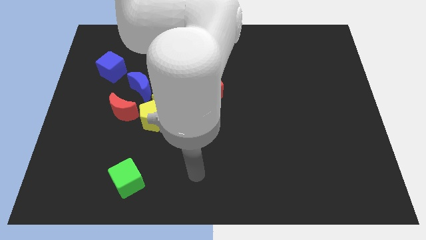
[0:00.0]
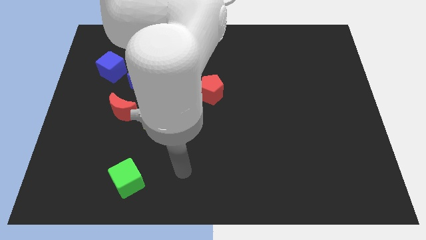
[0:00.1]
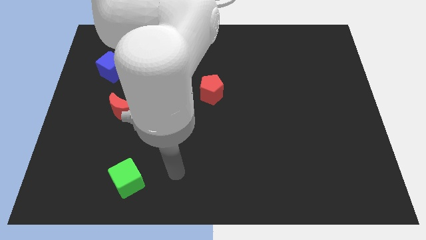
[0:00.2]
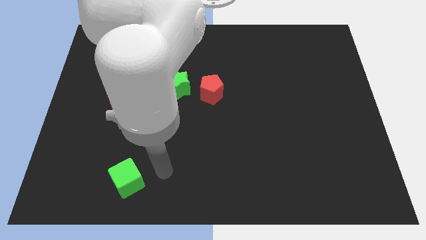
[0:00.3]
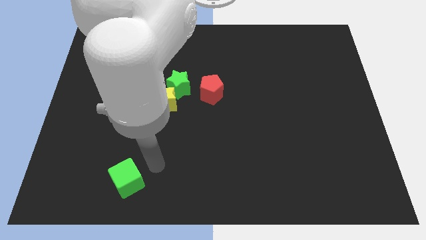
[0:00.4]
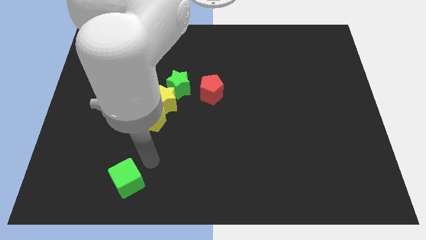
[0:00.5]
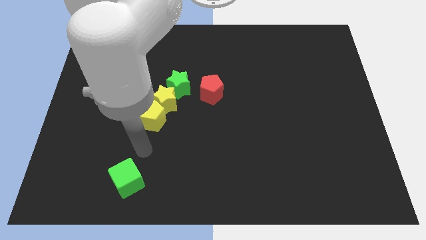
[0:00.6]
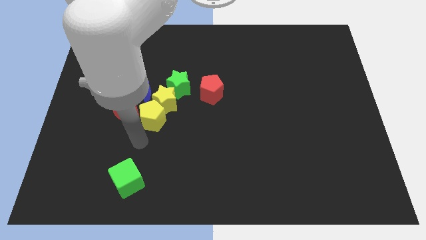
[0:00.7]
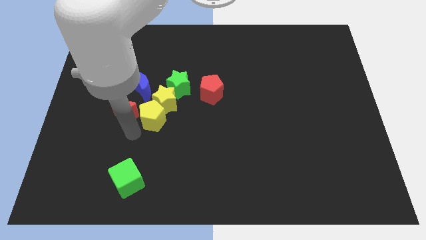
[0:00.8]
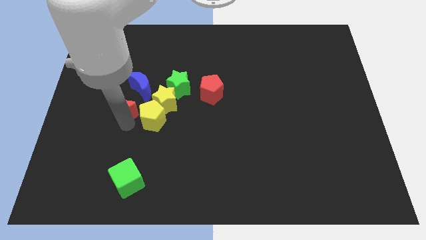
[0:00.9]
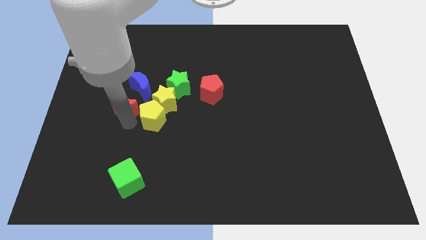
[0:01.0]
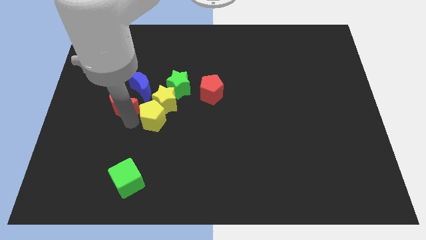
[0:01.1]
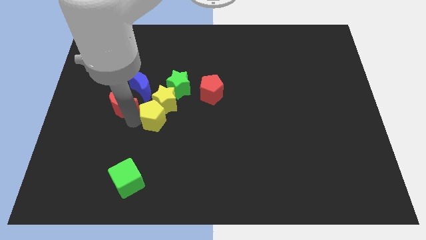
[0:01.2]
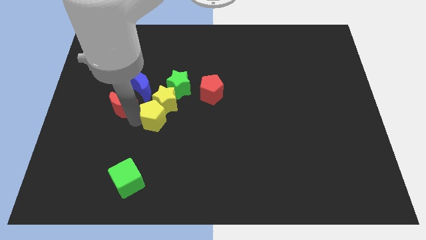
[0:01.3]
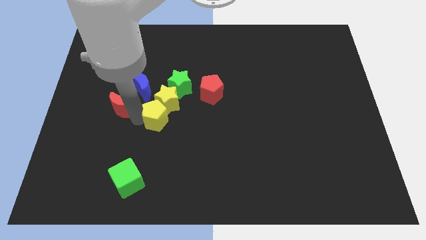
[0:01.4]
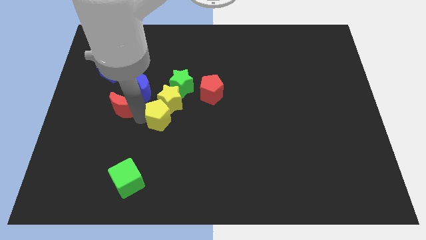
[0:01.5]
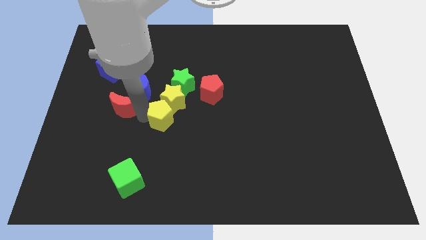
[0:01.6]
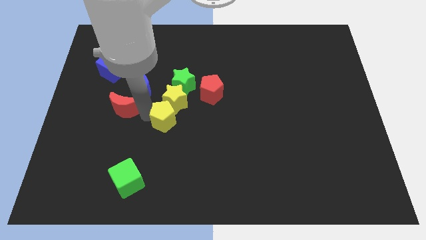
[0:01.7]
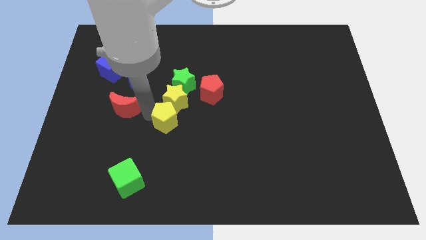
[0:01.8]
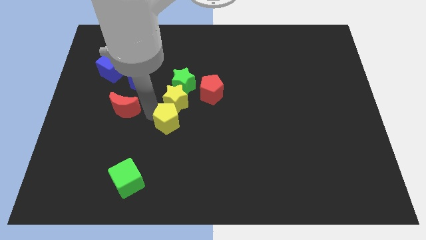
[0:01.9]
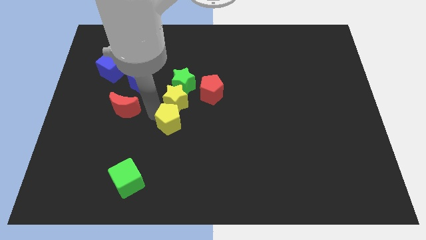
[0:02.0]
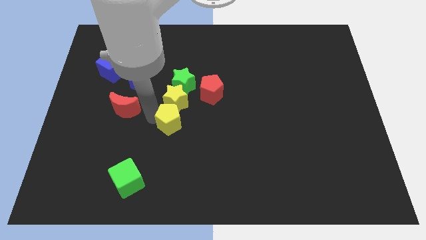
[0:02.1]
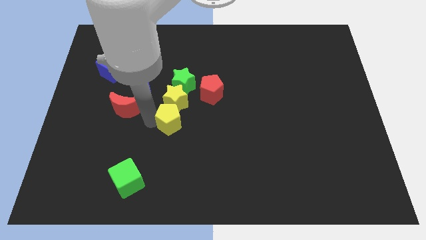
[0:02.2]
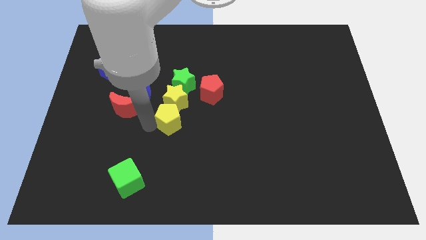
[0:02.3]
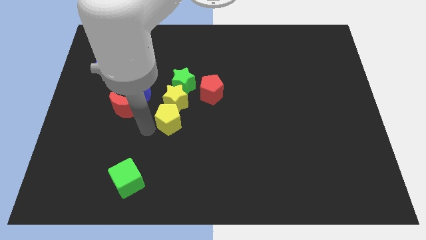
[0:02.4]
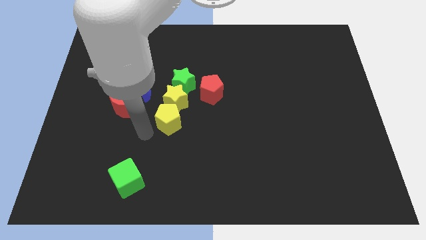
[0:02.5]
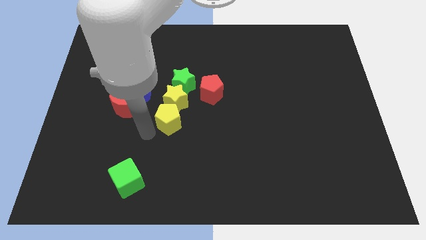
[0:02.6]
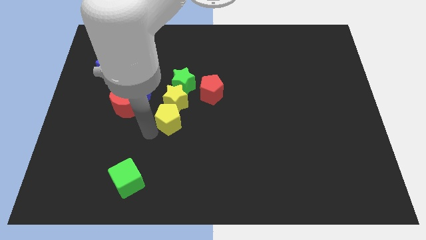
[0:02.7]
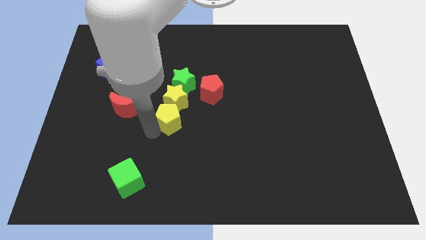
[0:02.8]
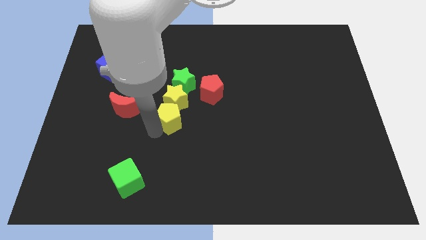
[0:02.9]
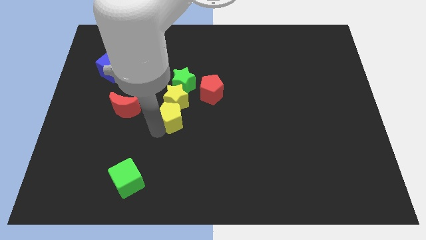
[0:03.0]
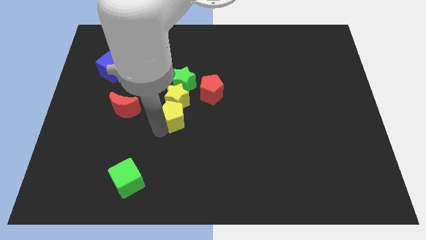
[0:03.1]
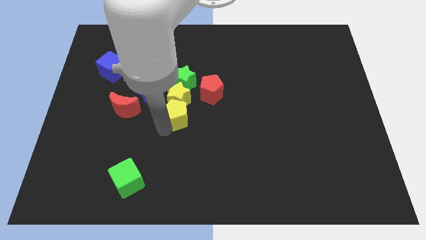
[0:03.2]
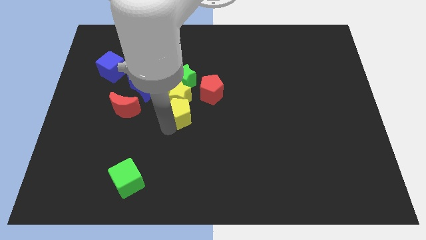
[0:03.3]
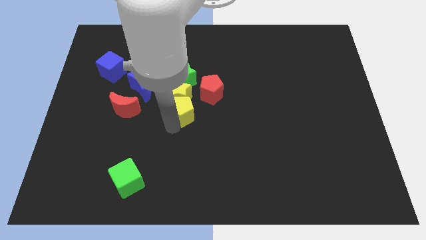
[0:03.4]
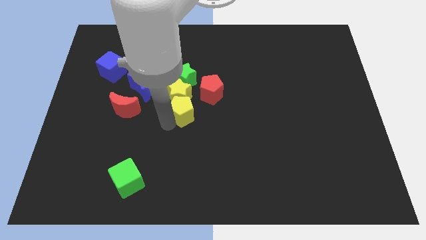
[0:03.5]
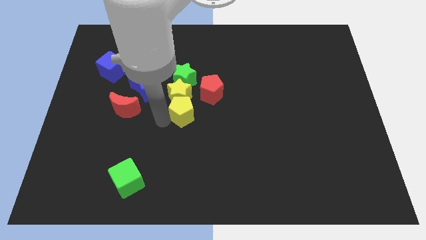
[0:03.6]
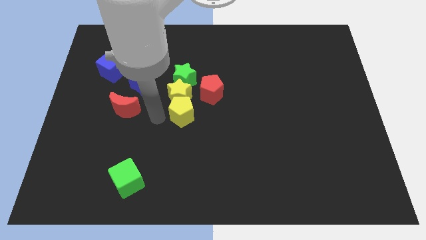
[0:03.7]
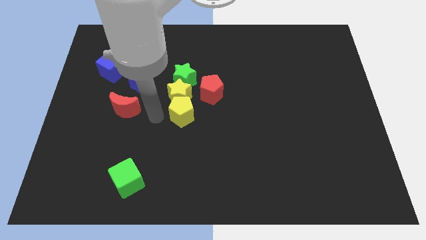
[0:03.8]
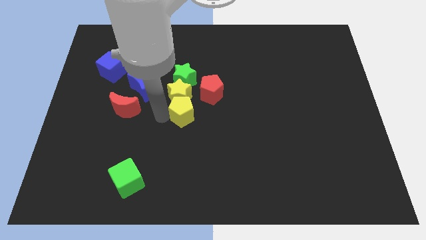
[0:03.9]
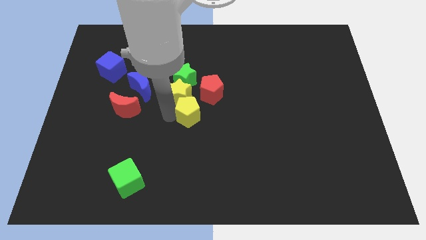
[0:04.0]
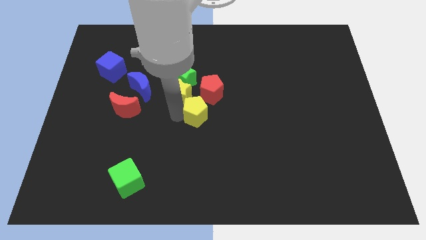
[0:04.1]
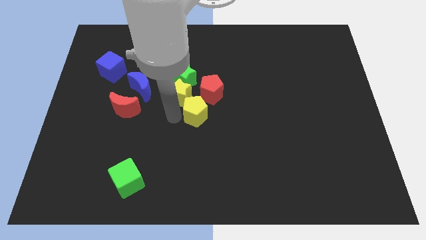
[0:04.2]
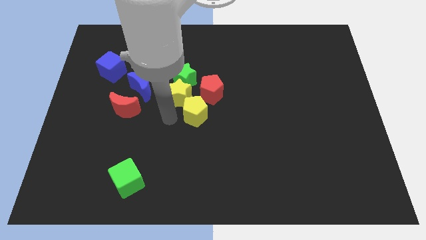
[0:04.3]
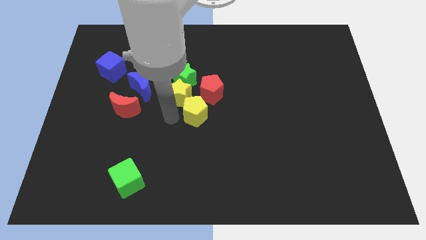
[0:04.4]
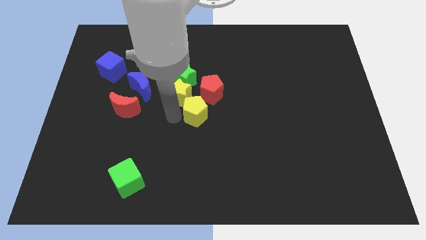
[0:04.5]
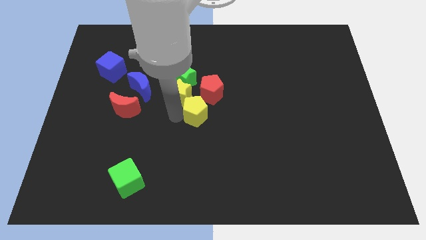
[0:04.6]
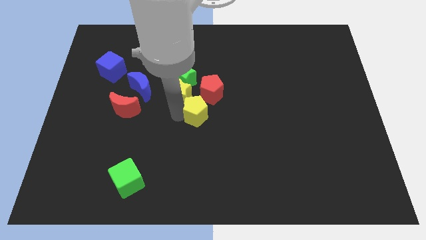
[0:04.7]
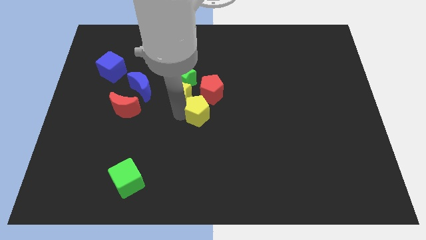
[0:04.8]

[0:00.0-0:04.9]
slightly push the yellow pentagon diagonally up and right

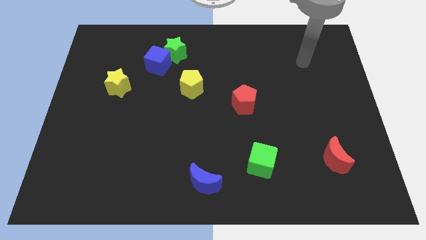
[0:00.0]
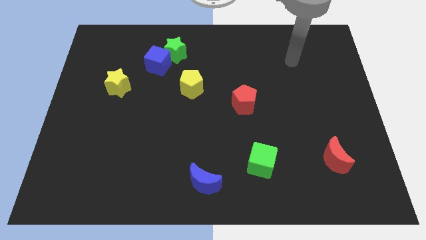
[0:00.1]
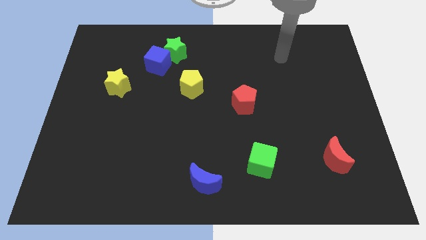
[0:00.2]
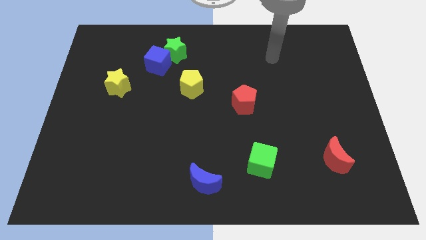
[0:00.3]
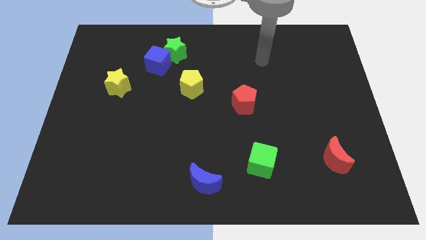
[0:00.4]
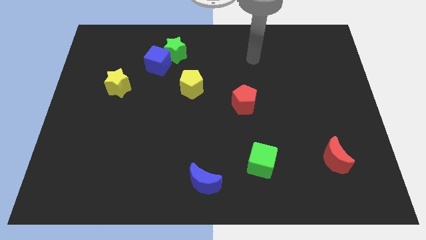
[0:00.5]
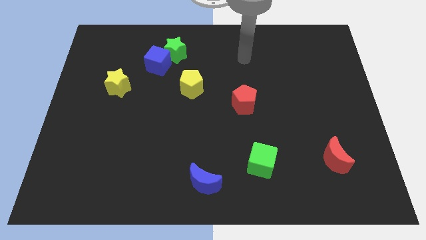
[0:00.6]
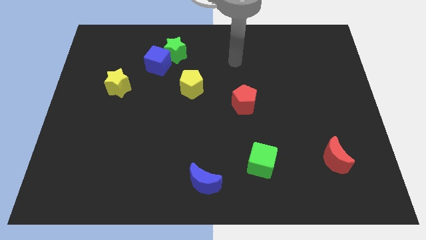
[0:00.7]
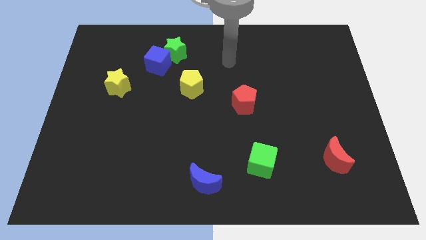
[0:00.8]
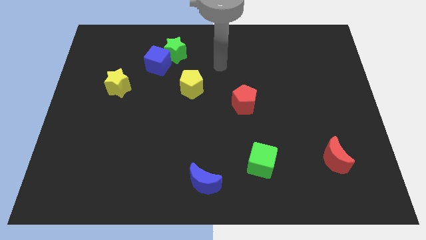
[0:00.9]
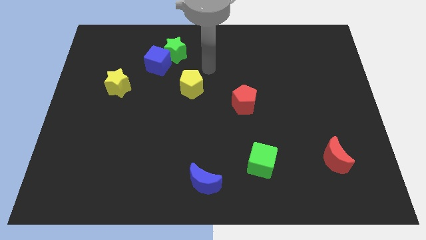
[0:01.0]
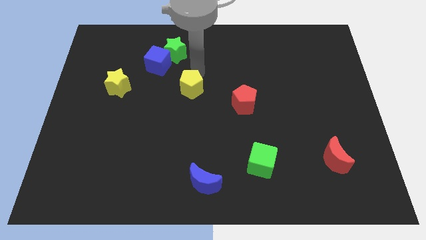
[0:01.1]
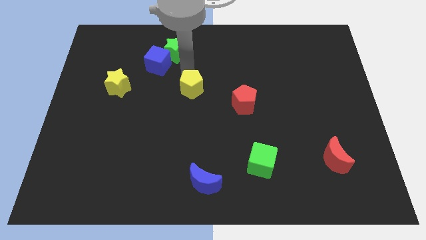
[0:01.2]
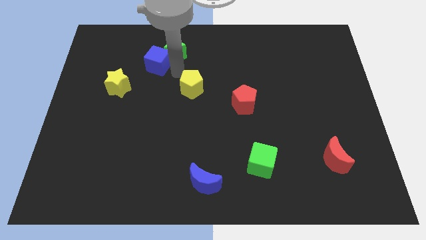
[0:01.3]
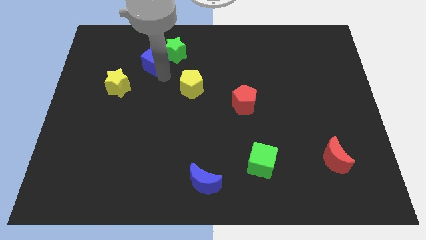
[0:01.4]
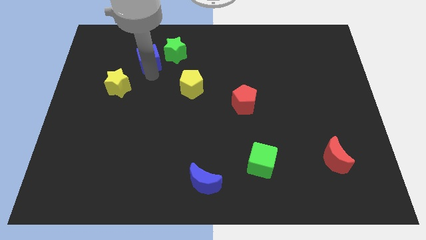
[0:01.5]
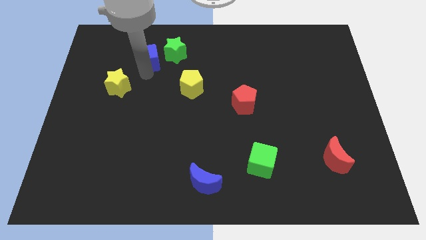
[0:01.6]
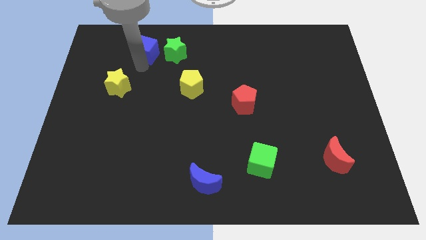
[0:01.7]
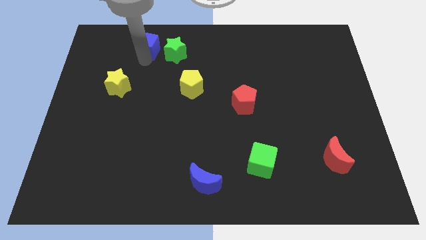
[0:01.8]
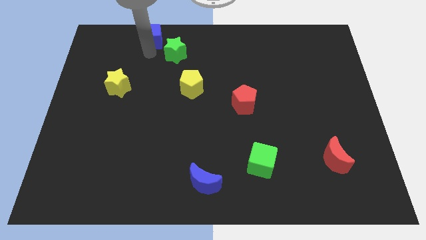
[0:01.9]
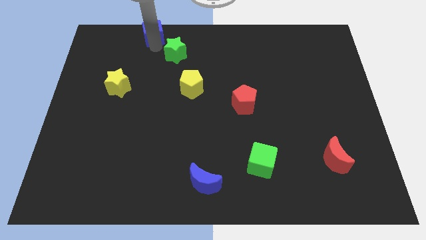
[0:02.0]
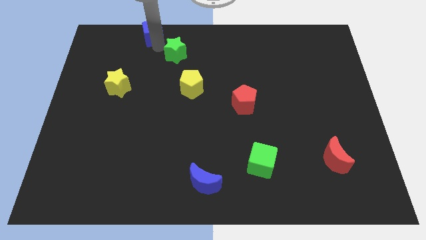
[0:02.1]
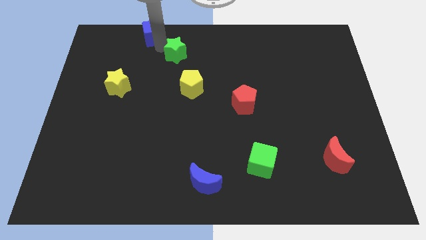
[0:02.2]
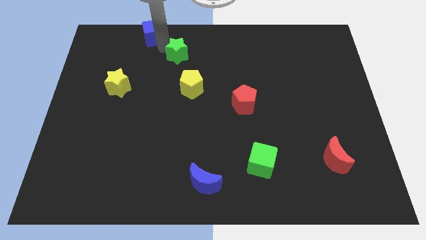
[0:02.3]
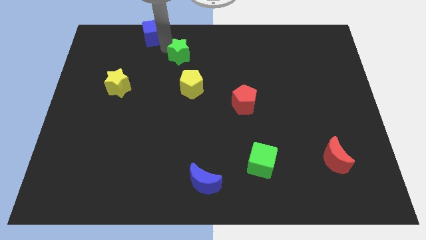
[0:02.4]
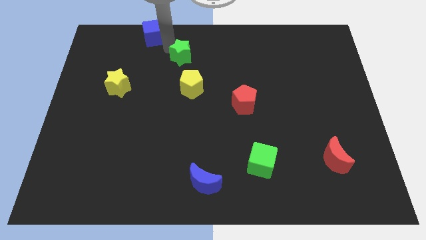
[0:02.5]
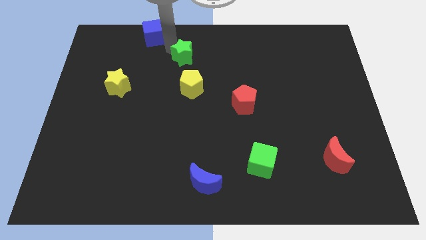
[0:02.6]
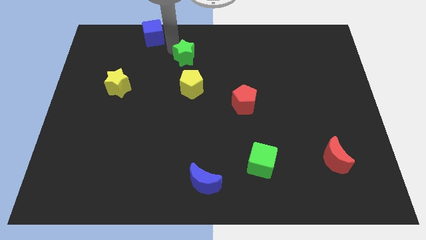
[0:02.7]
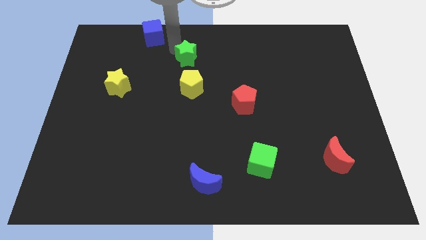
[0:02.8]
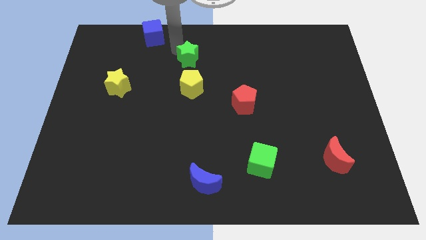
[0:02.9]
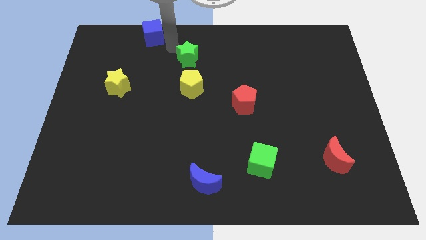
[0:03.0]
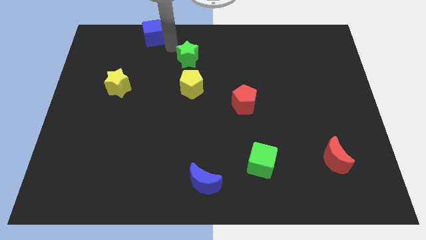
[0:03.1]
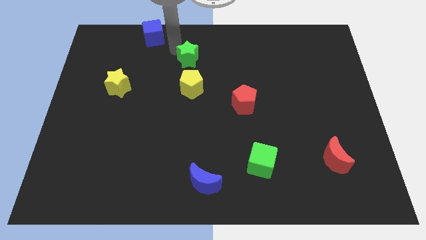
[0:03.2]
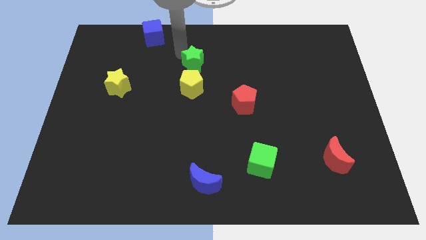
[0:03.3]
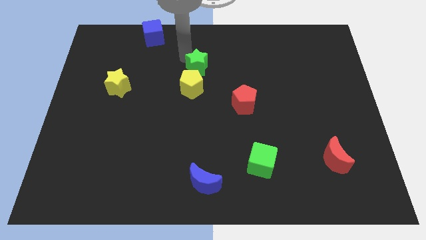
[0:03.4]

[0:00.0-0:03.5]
slightly push the green star downwards and right diagonally
